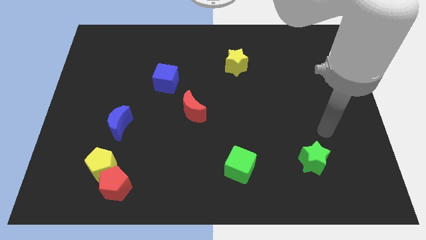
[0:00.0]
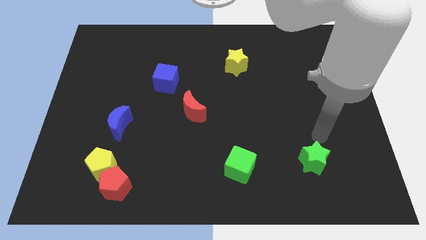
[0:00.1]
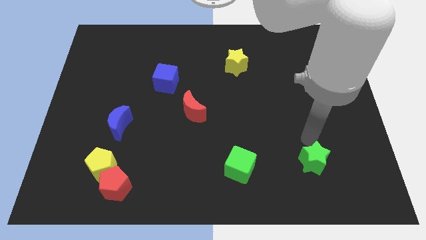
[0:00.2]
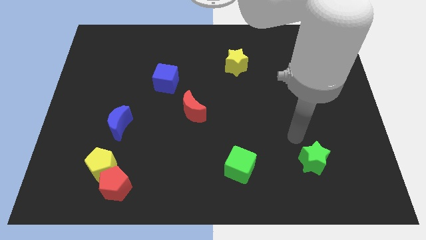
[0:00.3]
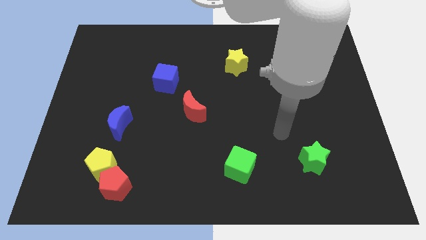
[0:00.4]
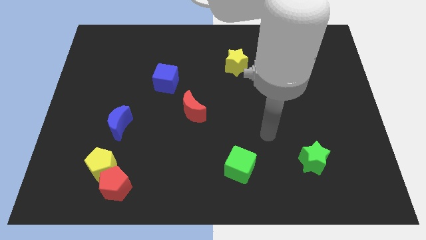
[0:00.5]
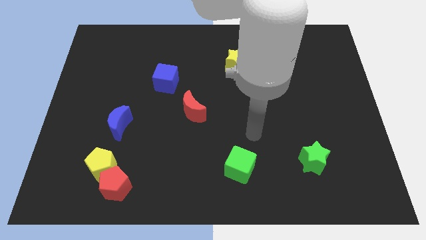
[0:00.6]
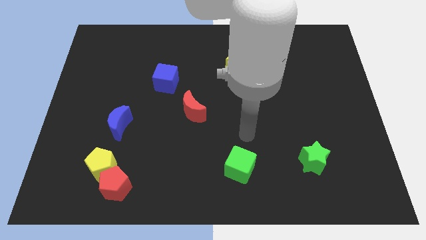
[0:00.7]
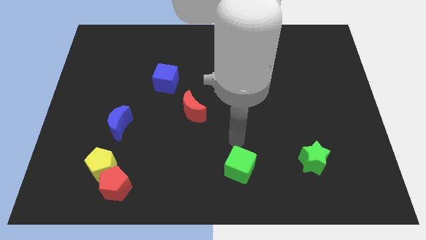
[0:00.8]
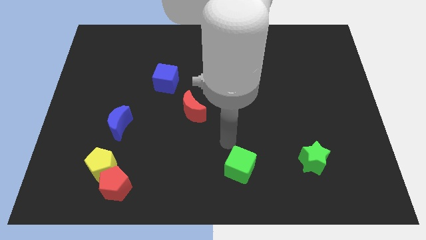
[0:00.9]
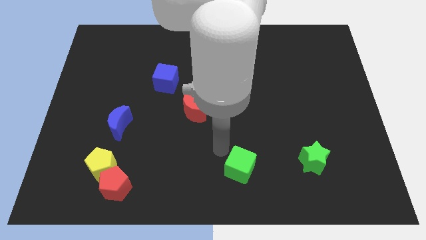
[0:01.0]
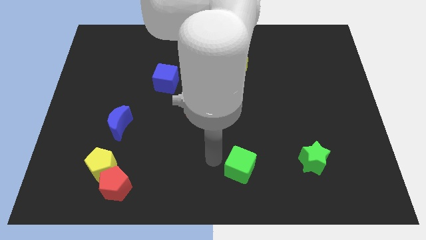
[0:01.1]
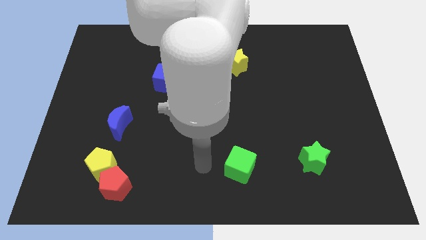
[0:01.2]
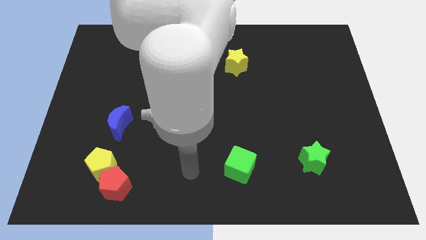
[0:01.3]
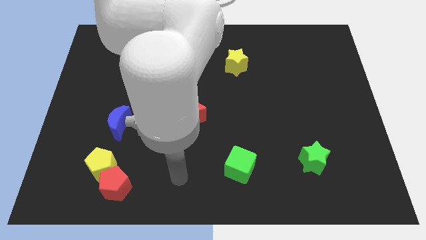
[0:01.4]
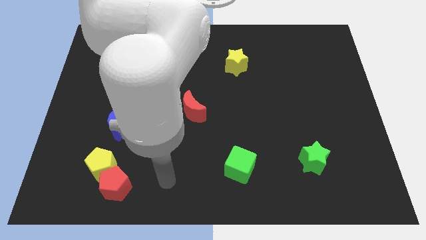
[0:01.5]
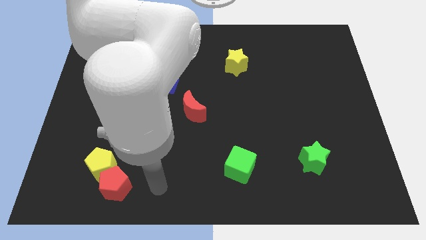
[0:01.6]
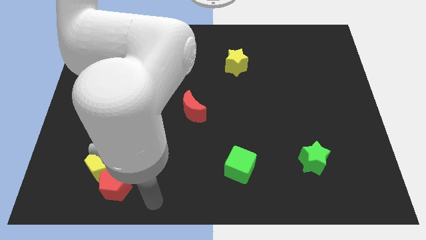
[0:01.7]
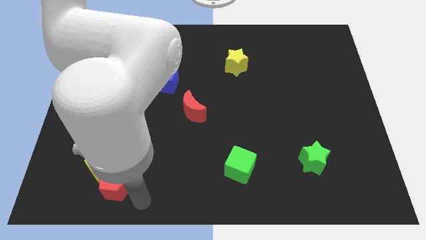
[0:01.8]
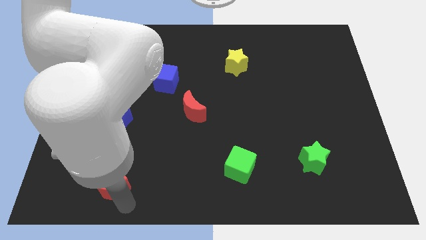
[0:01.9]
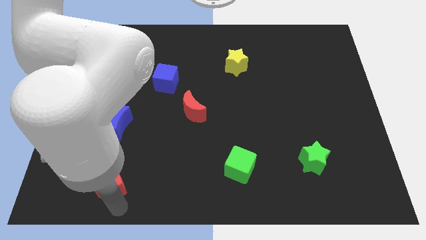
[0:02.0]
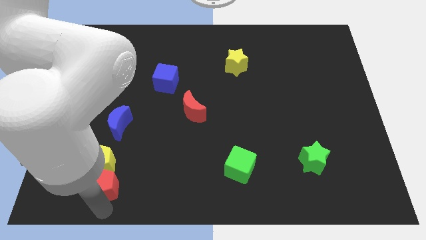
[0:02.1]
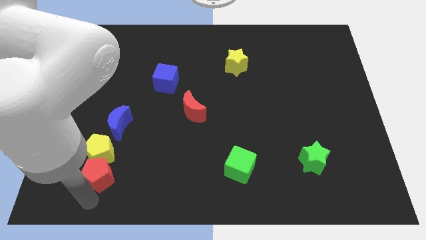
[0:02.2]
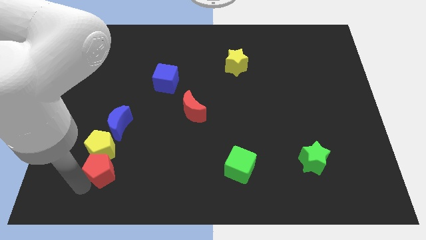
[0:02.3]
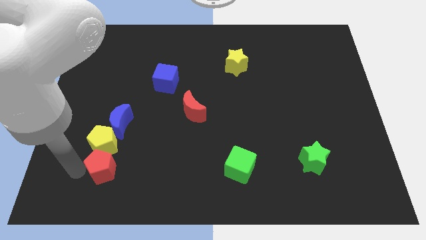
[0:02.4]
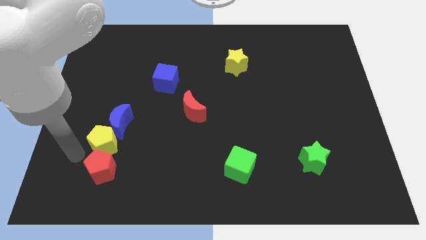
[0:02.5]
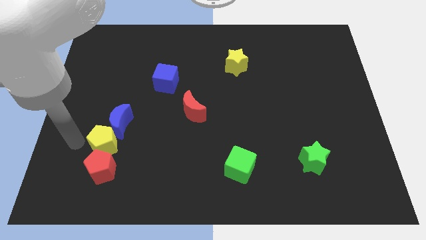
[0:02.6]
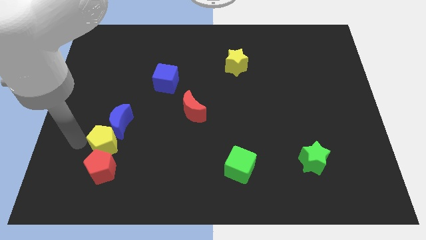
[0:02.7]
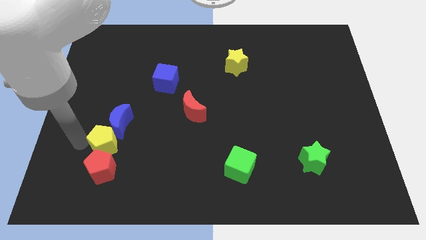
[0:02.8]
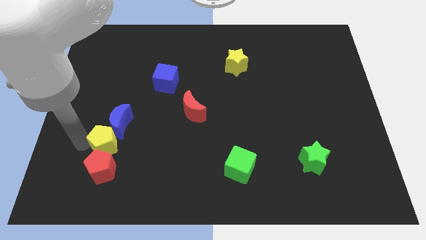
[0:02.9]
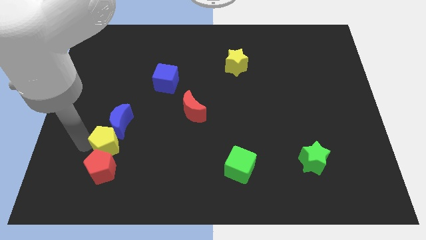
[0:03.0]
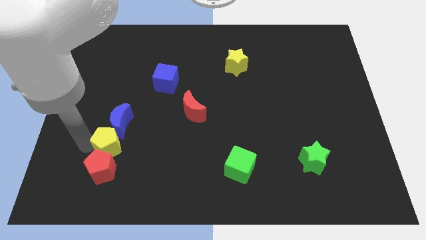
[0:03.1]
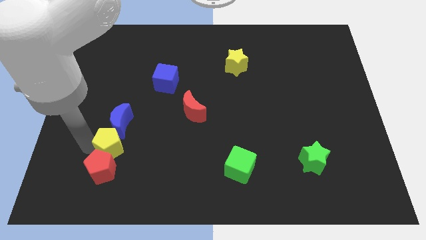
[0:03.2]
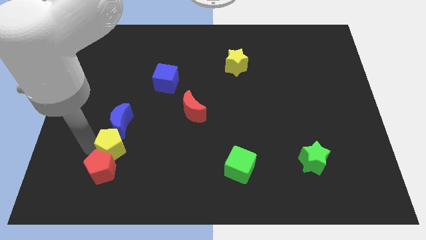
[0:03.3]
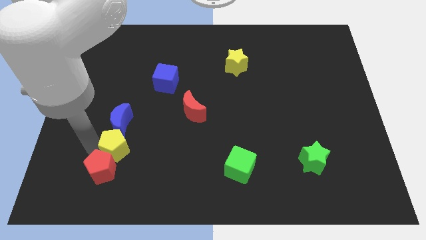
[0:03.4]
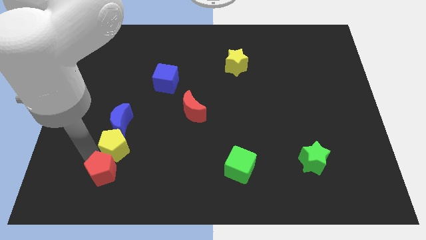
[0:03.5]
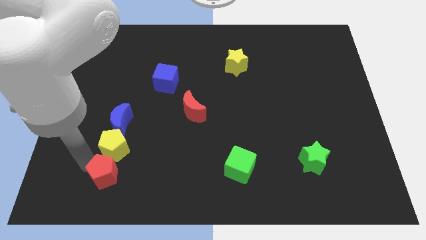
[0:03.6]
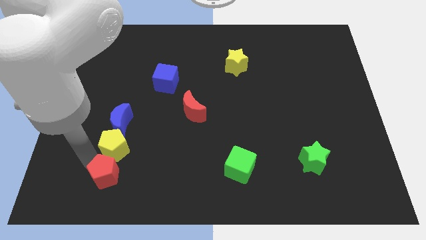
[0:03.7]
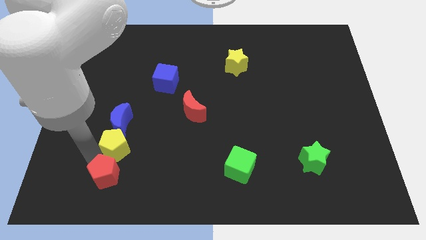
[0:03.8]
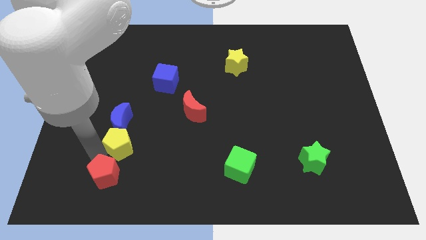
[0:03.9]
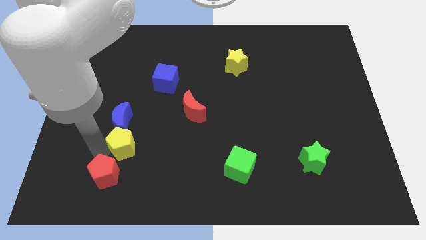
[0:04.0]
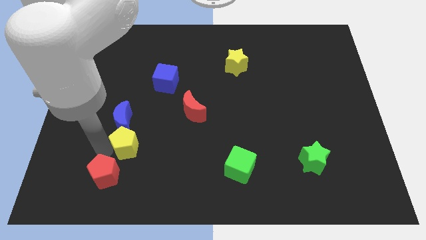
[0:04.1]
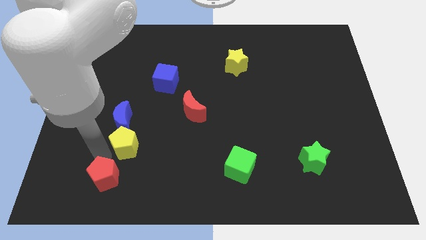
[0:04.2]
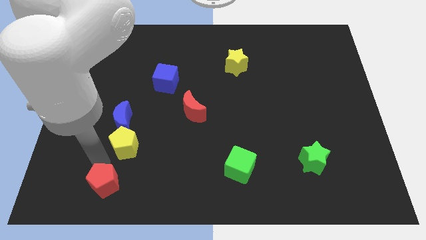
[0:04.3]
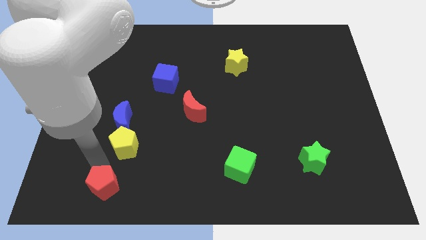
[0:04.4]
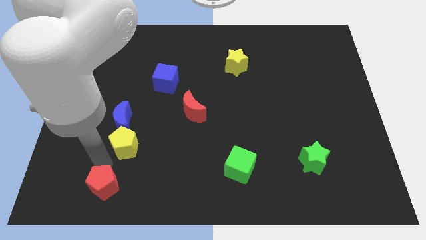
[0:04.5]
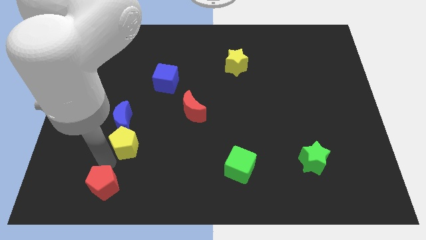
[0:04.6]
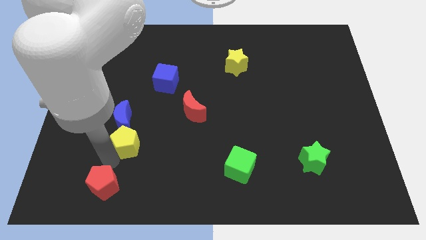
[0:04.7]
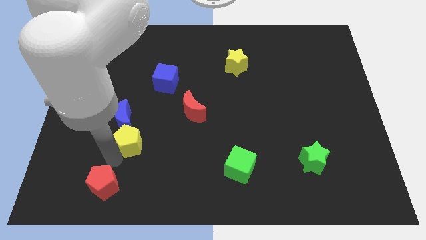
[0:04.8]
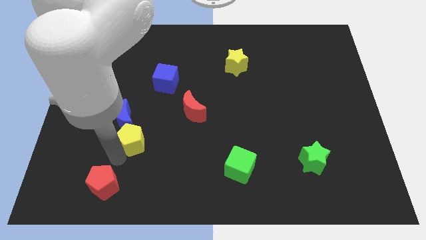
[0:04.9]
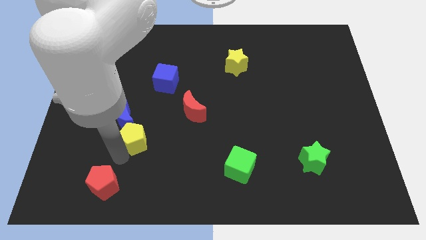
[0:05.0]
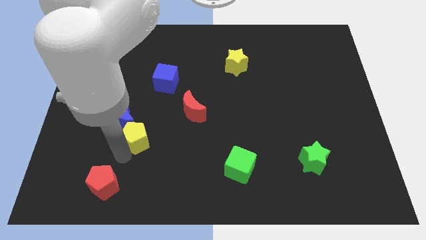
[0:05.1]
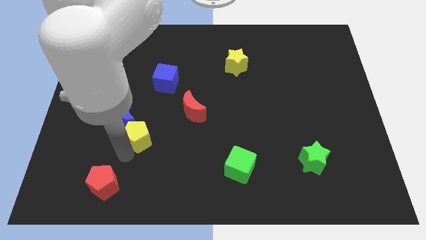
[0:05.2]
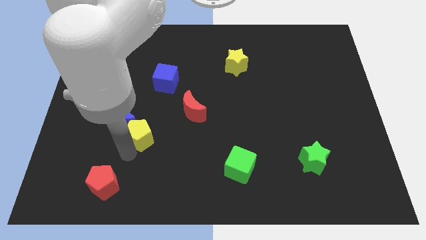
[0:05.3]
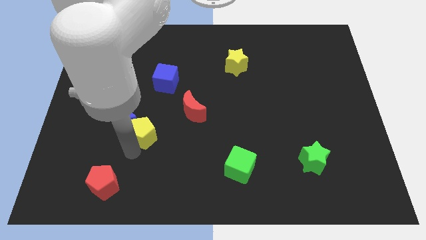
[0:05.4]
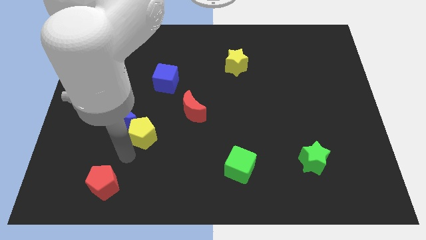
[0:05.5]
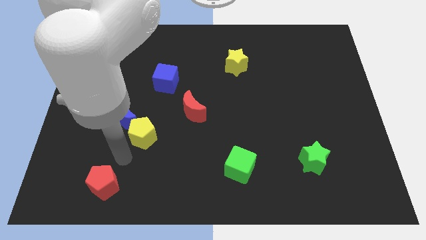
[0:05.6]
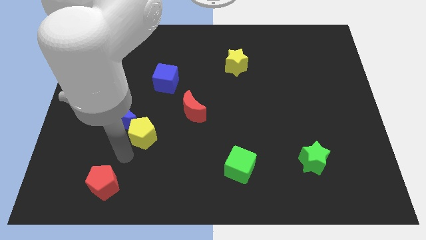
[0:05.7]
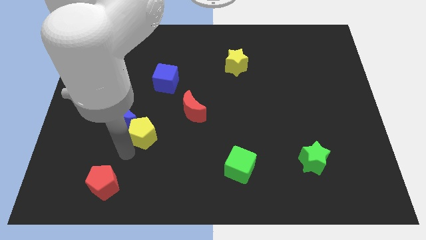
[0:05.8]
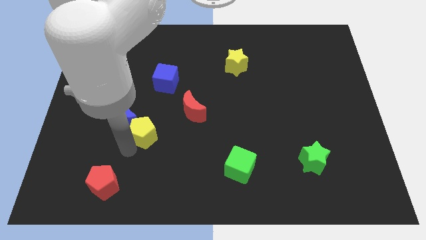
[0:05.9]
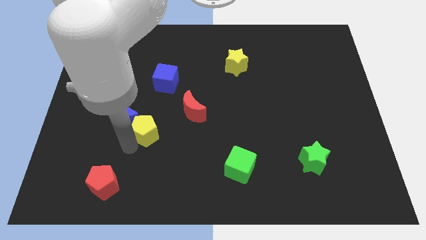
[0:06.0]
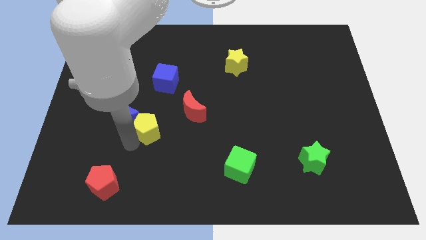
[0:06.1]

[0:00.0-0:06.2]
put the yellow pentagon to the bottom side of the blue cube

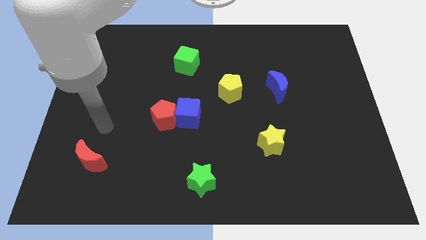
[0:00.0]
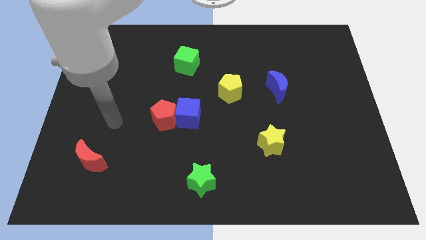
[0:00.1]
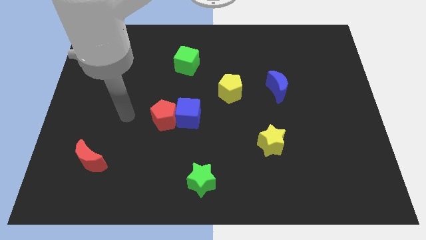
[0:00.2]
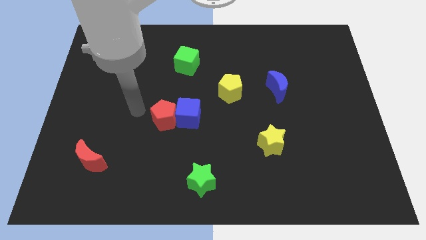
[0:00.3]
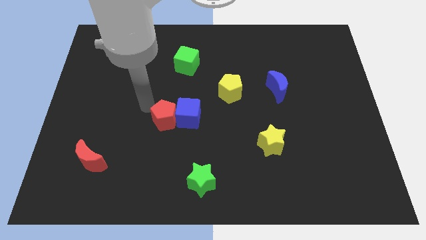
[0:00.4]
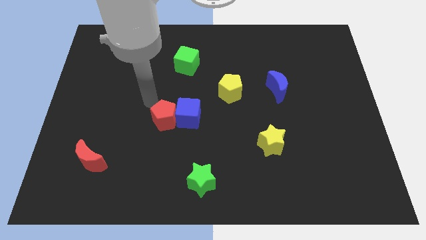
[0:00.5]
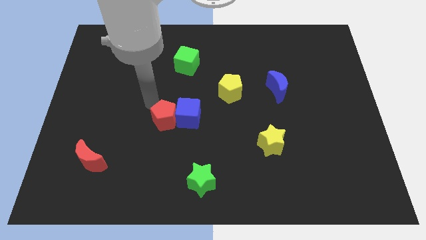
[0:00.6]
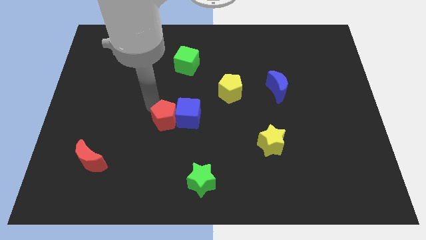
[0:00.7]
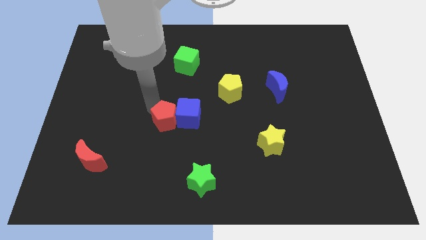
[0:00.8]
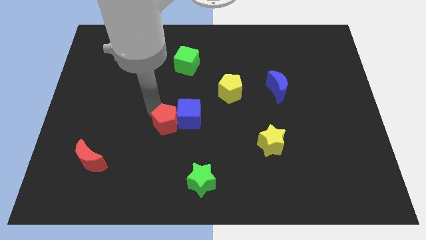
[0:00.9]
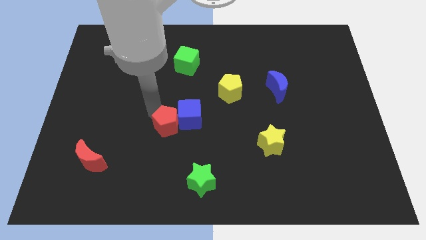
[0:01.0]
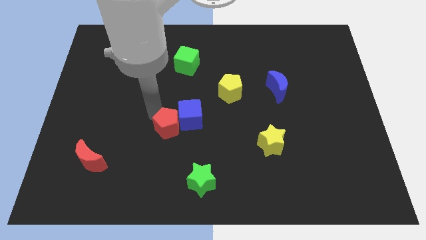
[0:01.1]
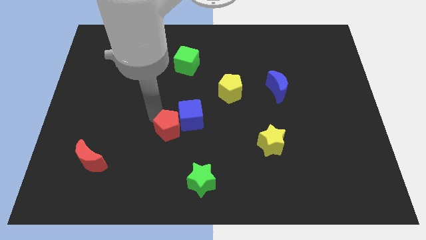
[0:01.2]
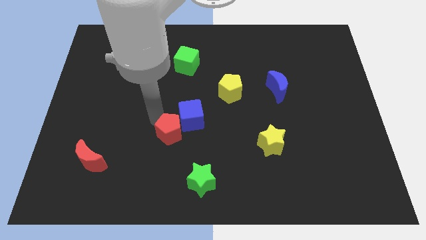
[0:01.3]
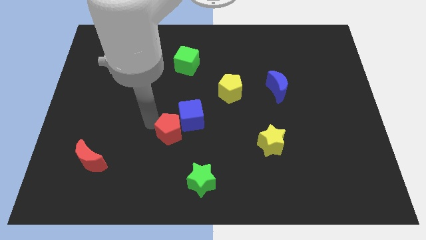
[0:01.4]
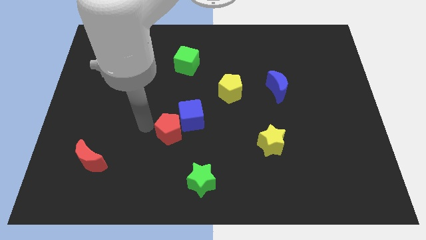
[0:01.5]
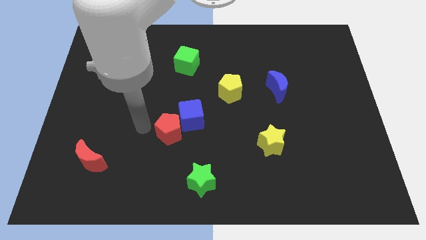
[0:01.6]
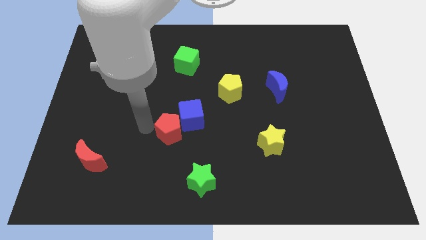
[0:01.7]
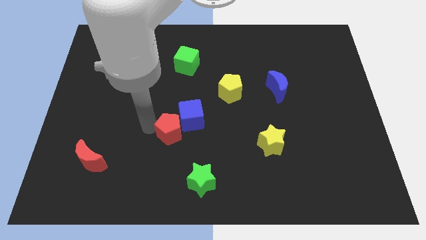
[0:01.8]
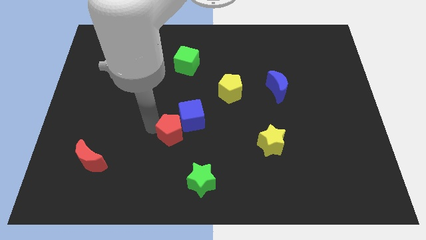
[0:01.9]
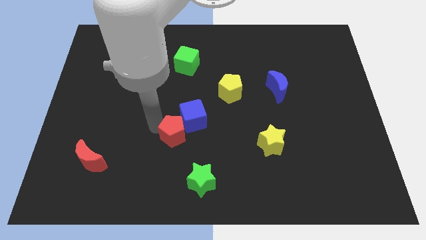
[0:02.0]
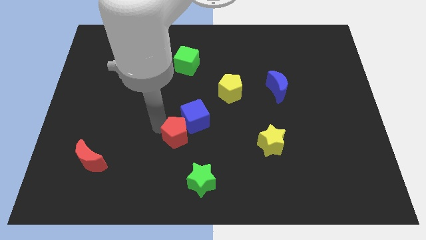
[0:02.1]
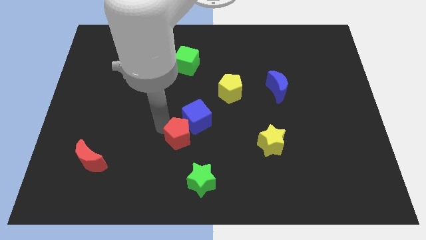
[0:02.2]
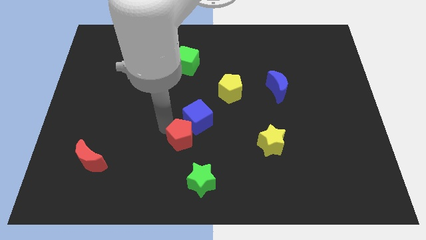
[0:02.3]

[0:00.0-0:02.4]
move the red pentagon above the green star
